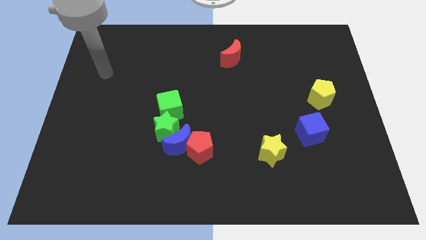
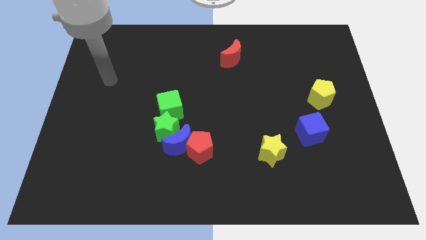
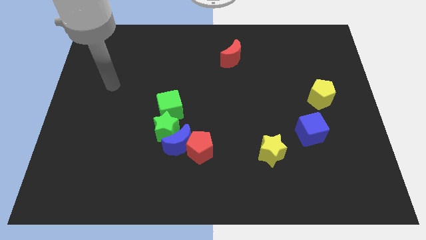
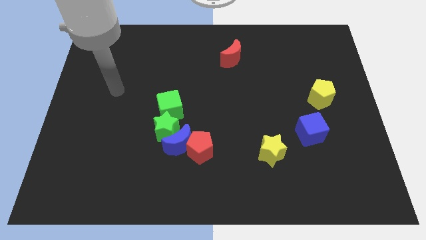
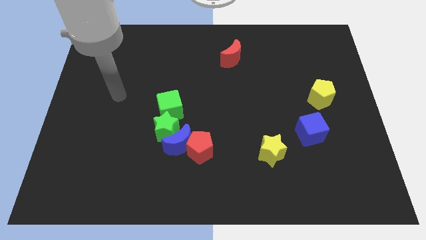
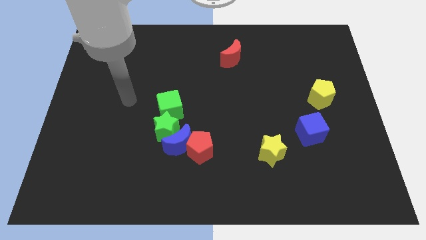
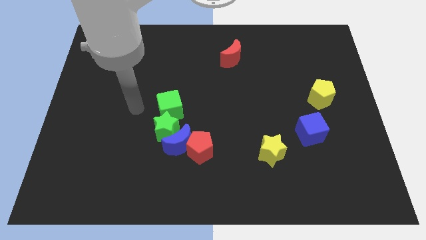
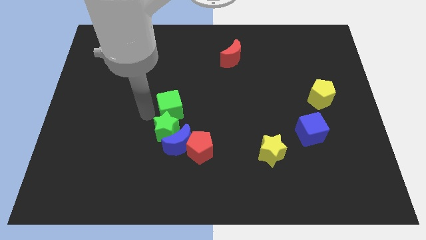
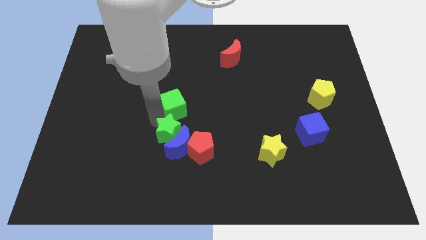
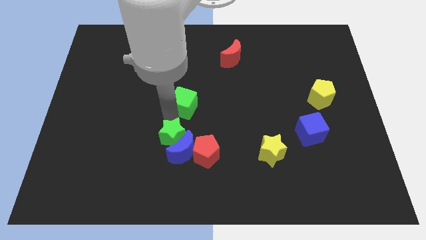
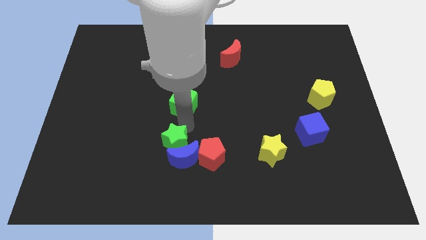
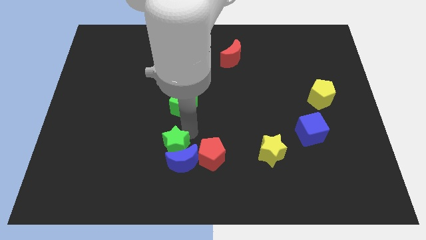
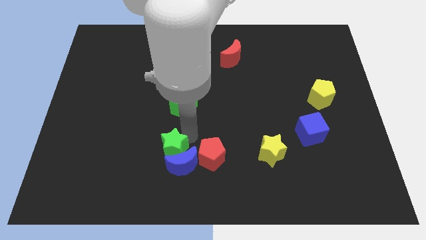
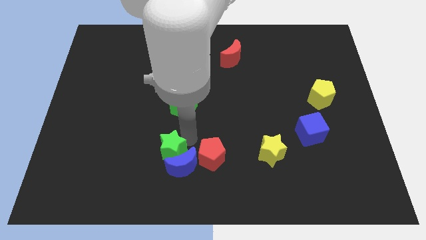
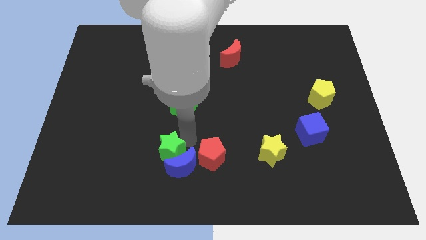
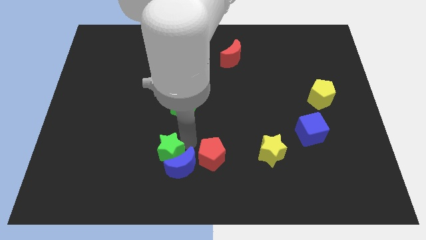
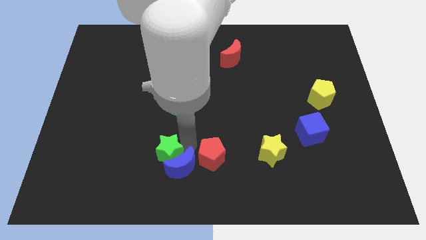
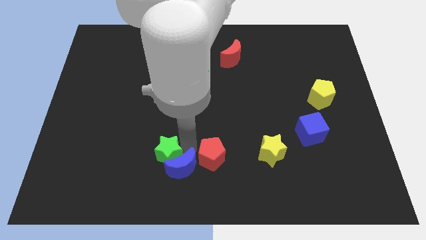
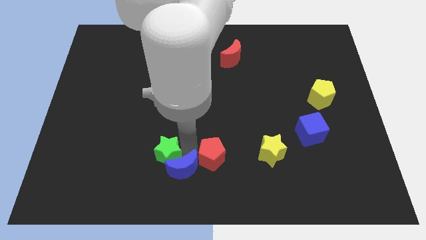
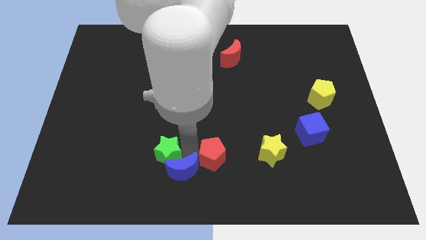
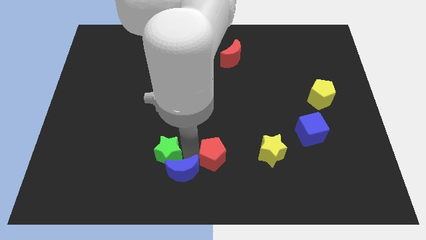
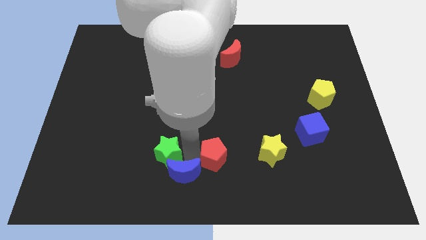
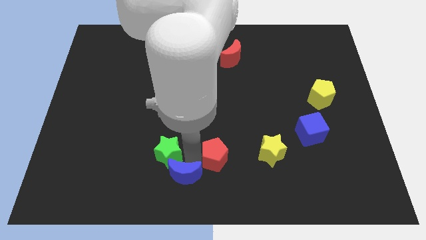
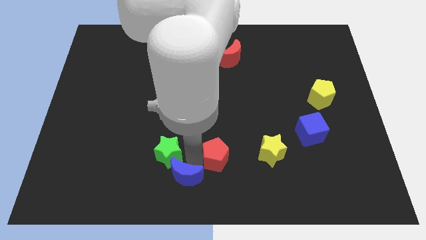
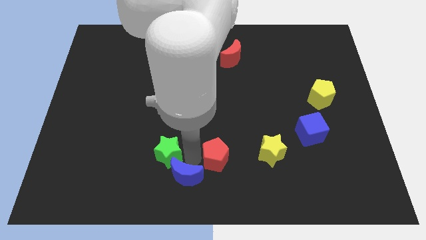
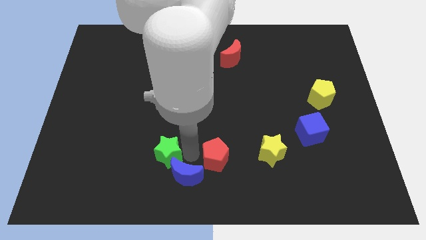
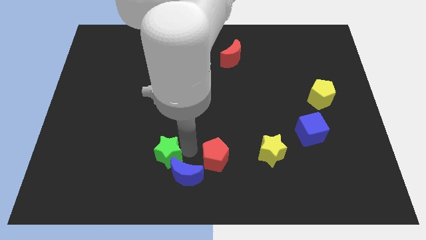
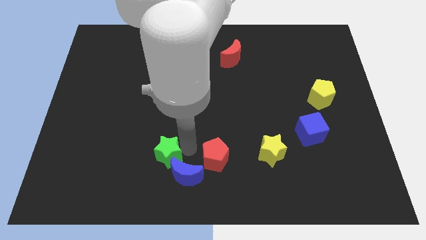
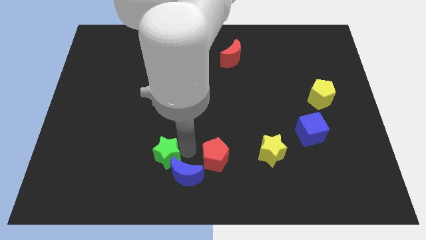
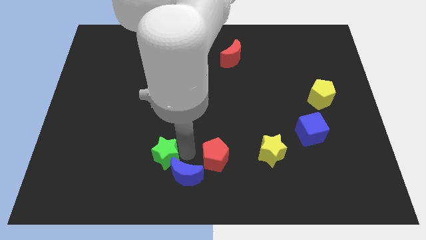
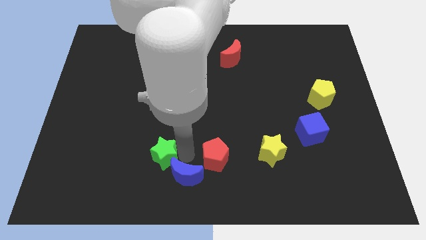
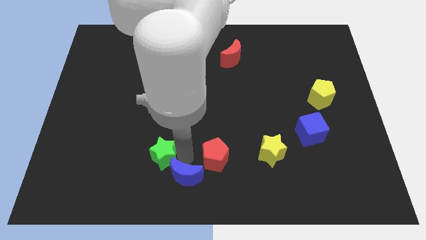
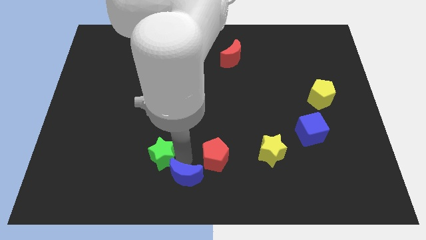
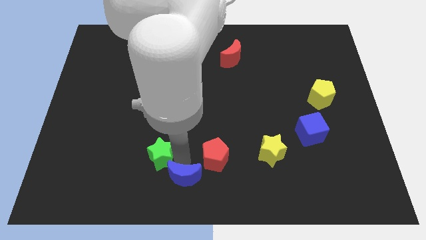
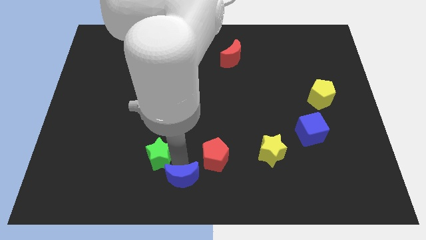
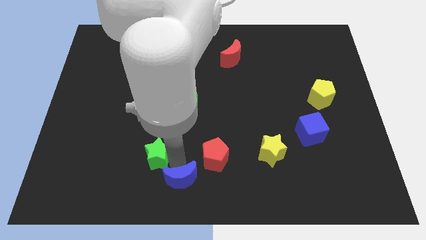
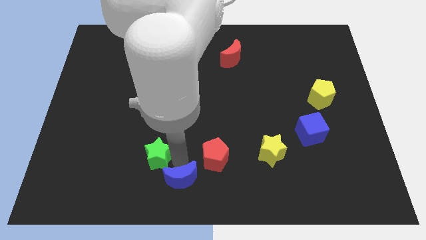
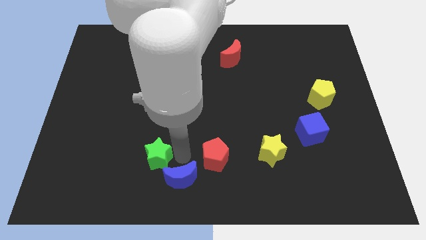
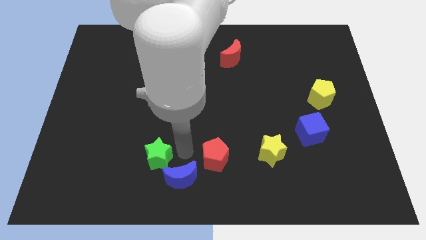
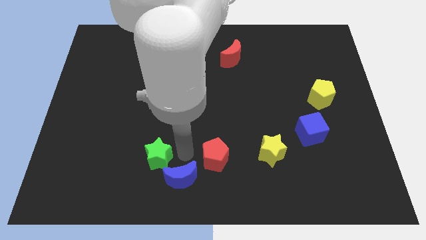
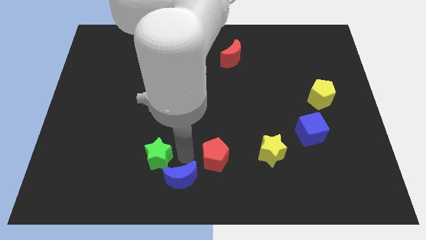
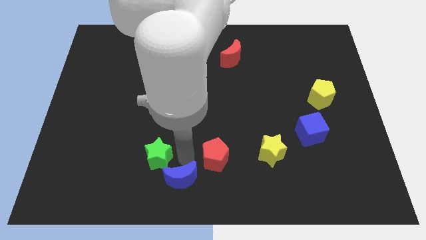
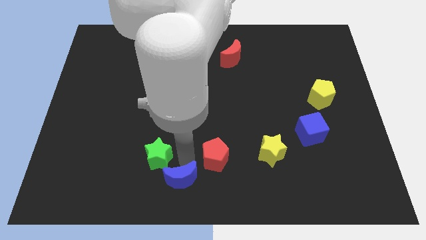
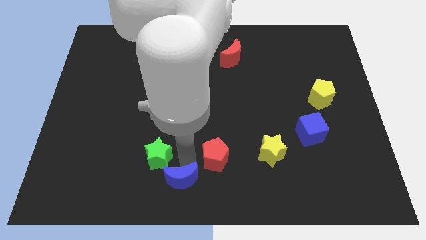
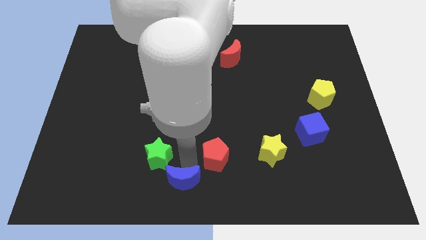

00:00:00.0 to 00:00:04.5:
move the blue moon away from the group

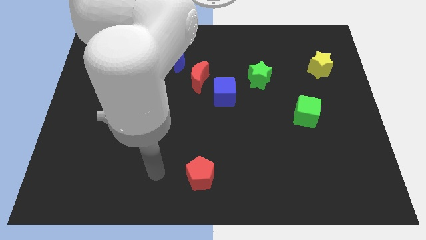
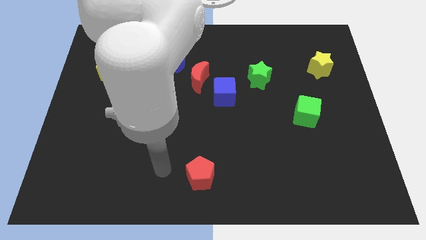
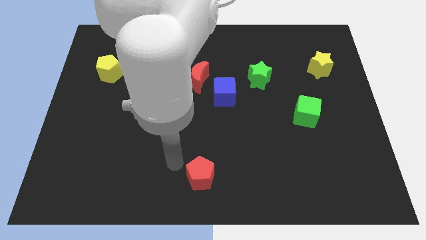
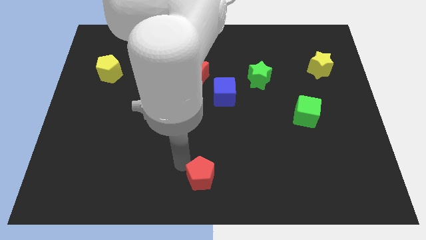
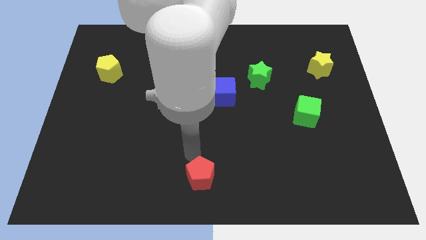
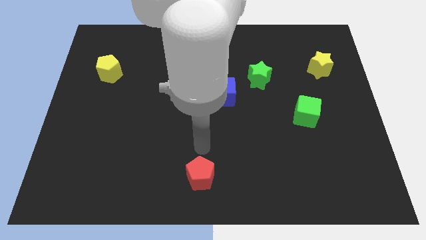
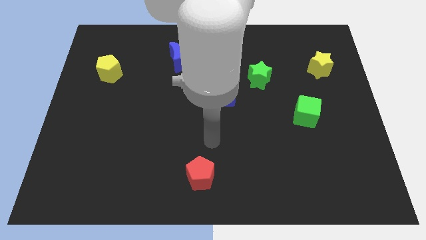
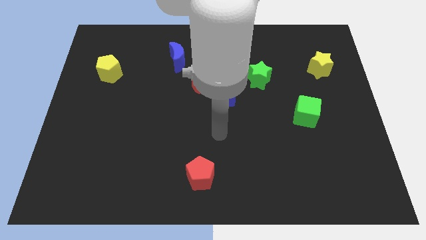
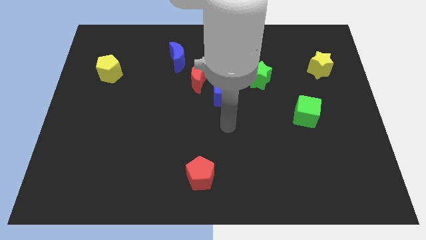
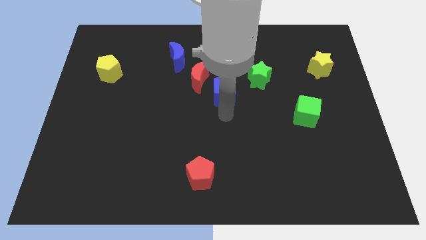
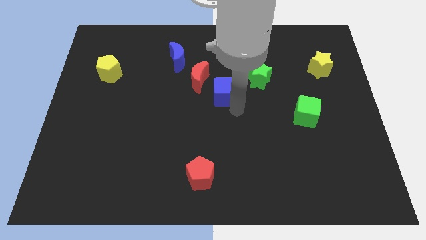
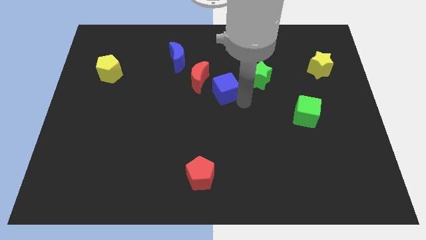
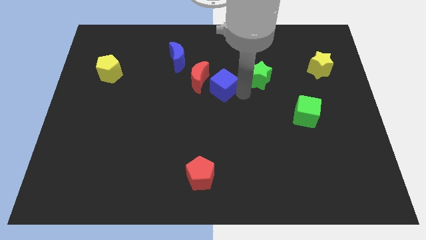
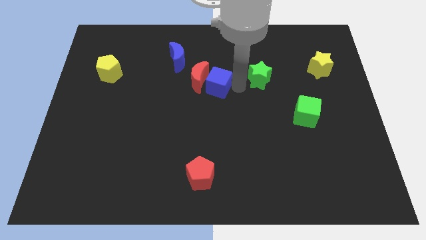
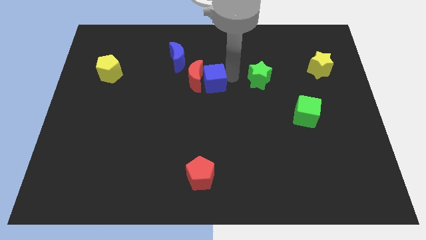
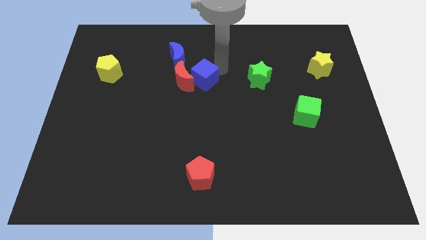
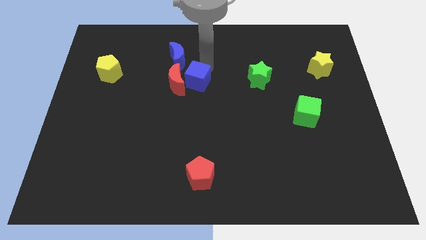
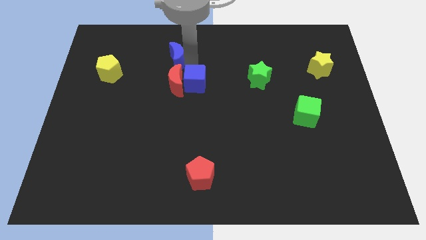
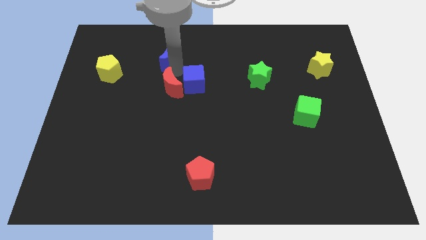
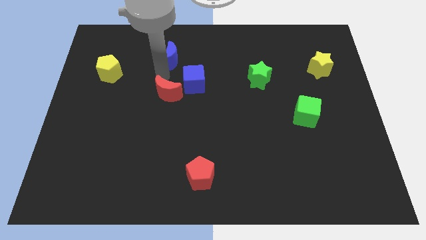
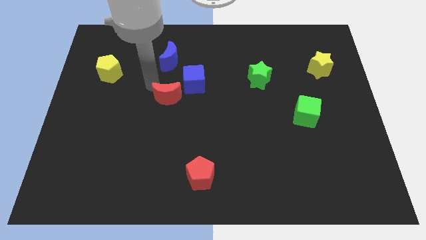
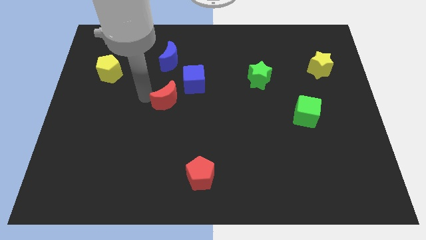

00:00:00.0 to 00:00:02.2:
separate the red moon from the blue cube and blue moon

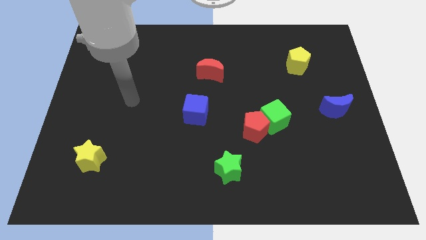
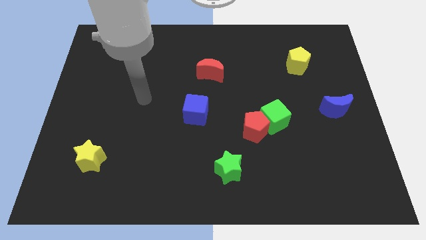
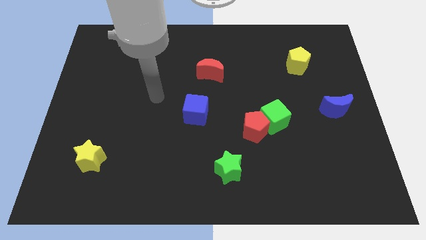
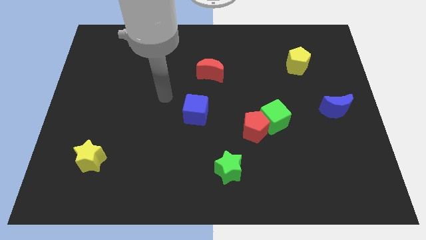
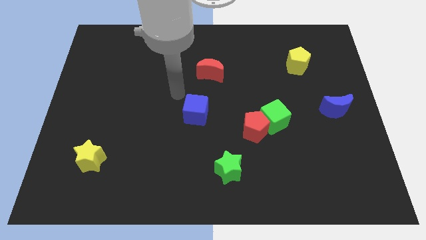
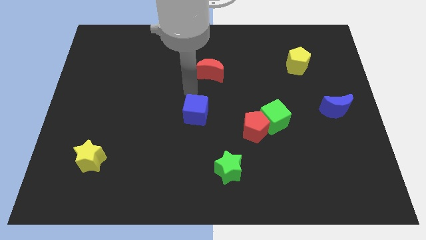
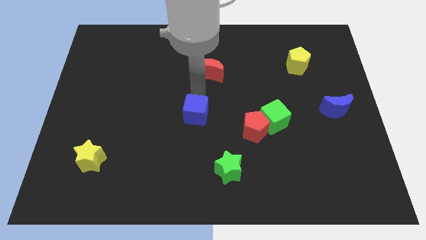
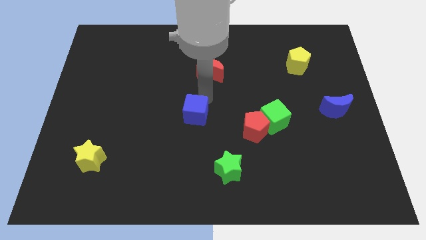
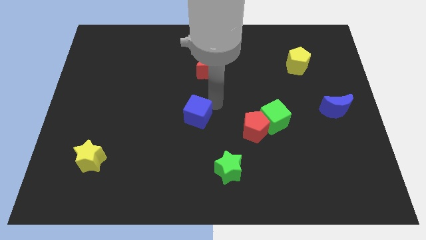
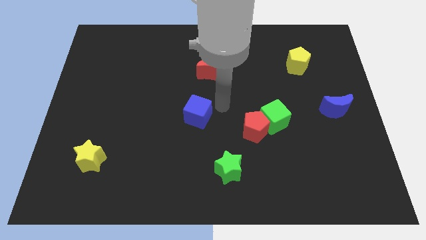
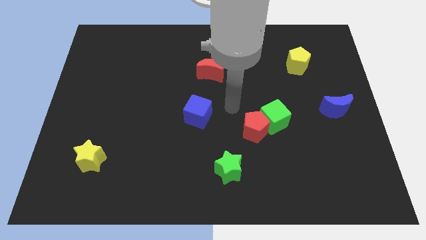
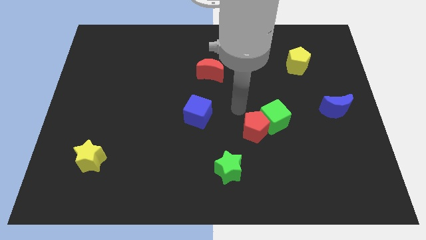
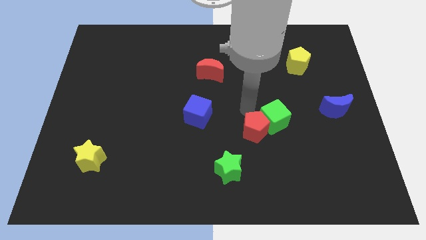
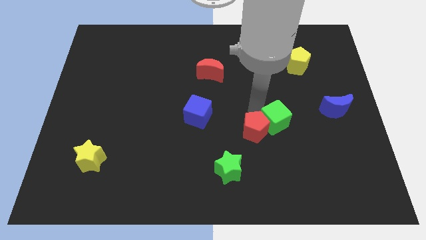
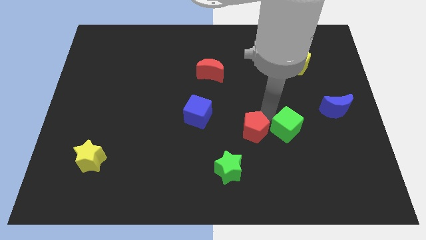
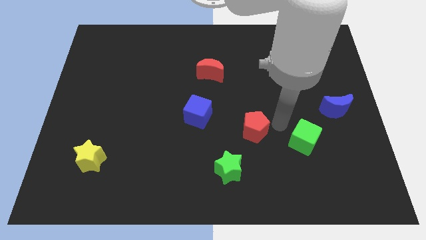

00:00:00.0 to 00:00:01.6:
pull the red pentagon apart from the green cube

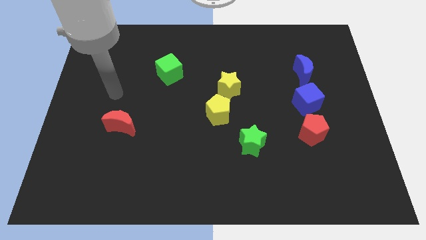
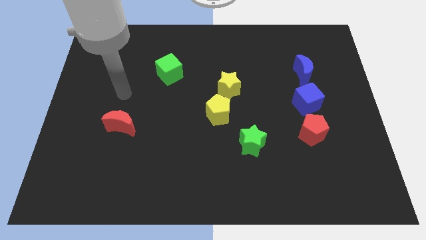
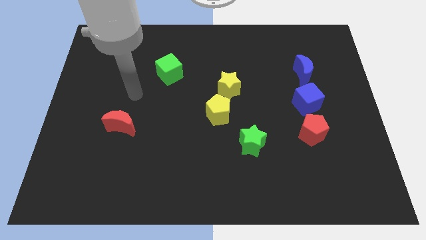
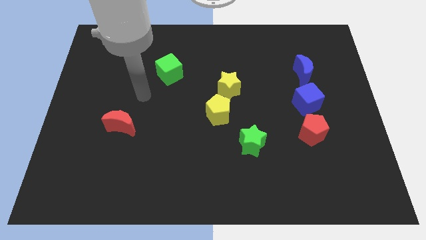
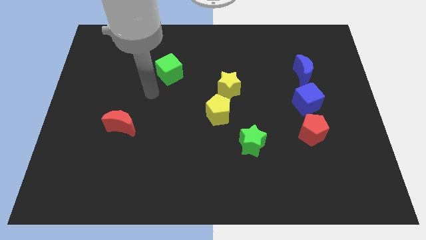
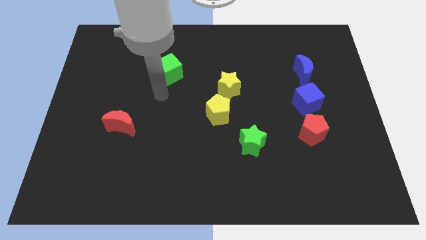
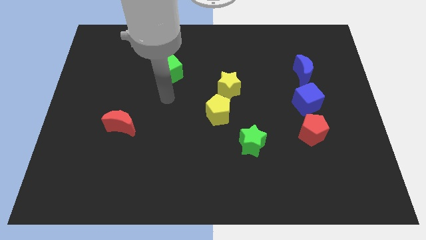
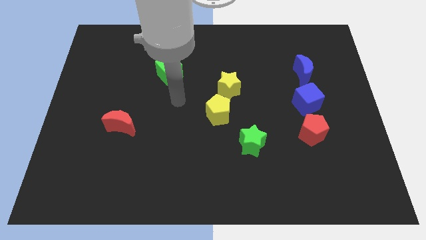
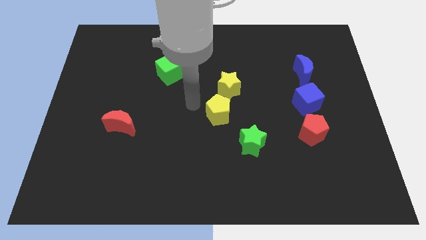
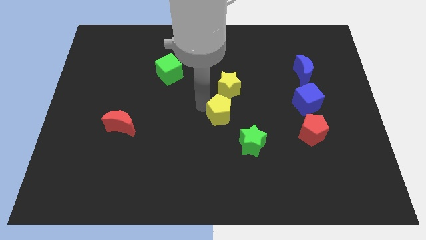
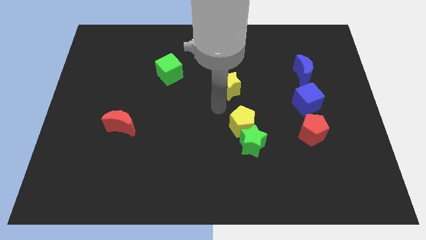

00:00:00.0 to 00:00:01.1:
move the yellow star away from the yellow pentagon

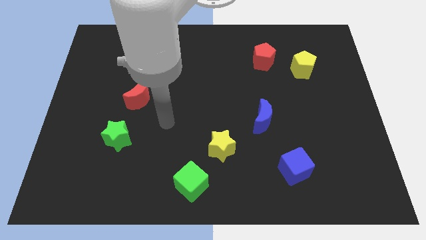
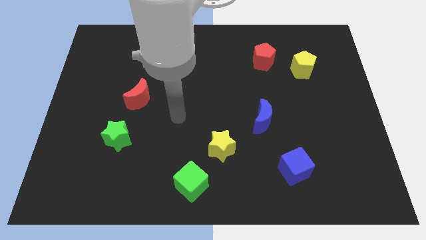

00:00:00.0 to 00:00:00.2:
separate the red pentagon from the yellow pentagon
